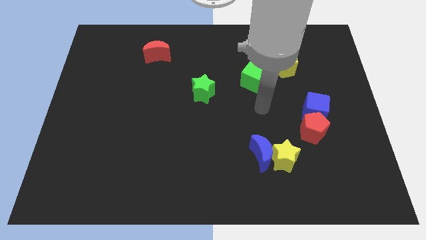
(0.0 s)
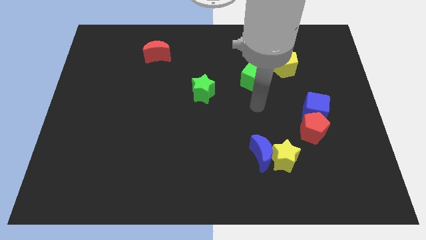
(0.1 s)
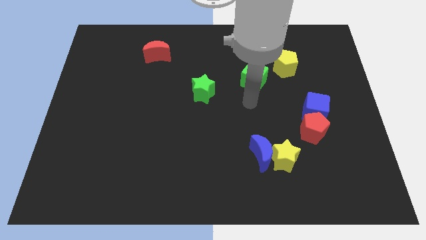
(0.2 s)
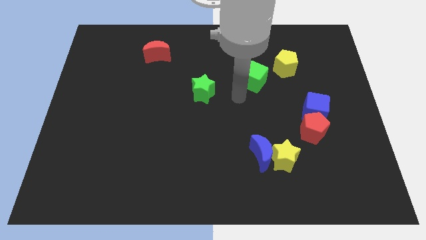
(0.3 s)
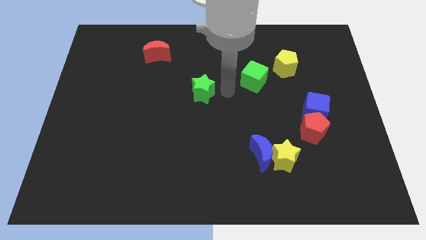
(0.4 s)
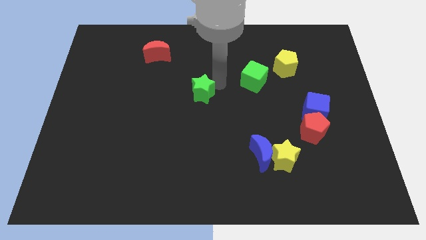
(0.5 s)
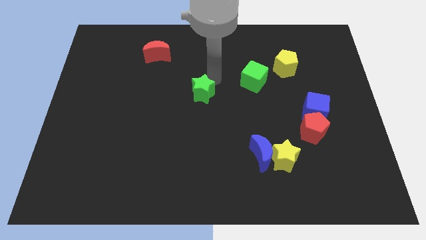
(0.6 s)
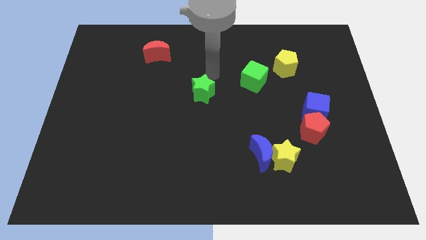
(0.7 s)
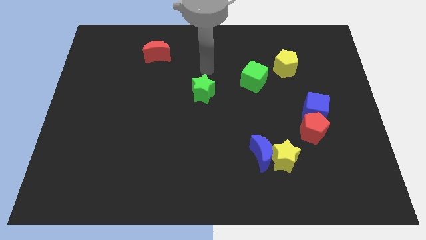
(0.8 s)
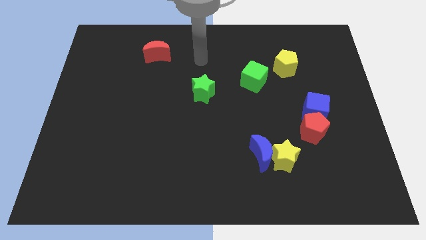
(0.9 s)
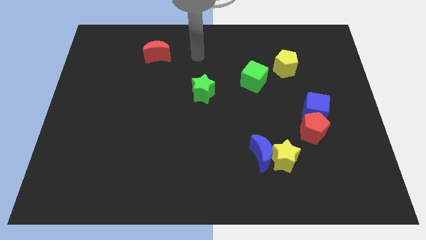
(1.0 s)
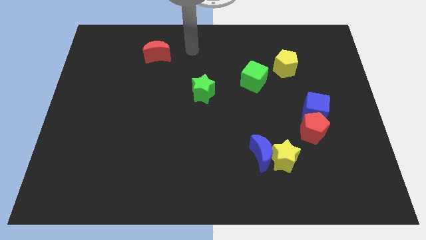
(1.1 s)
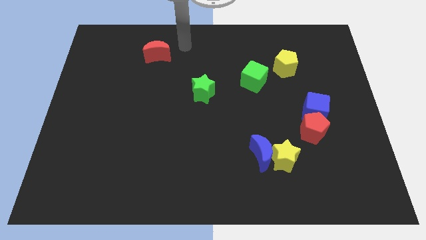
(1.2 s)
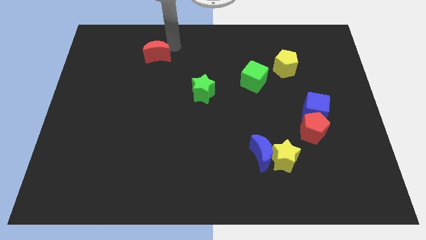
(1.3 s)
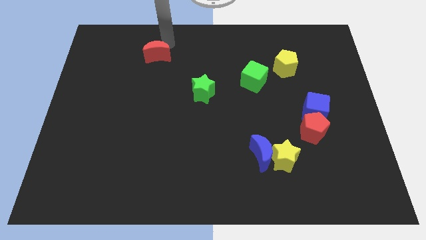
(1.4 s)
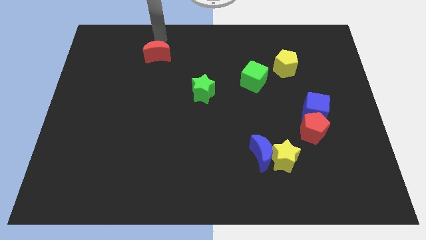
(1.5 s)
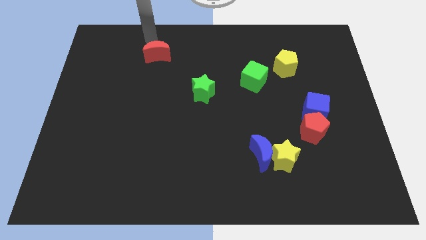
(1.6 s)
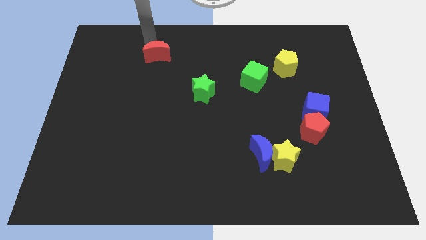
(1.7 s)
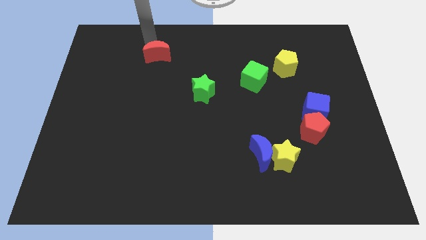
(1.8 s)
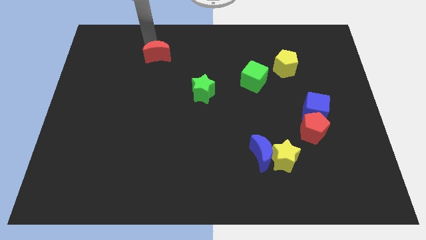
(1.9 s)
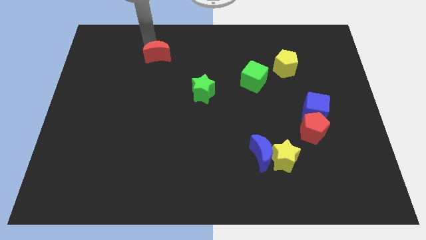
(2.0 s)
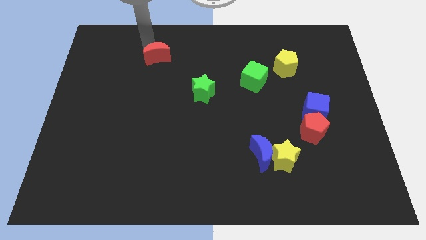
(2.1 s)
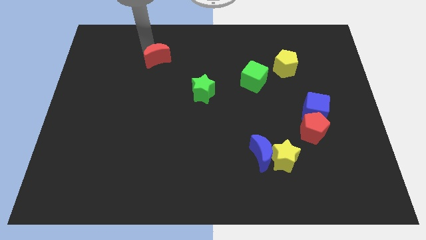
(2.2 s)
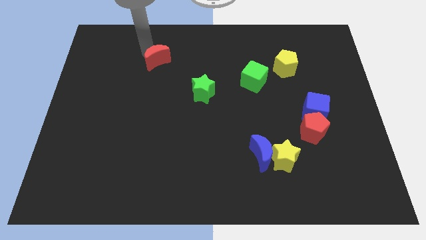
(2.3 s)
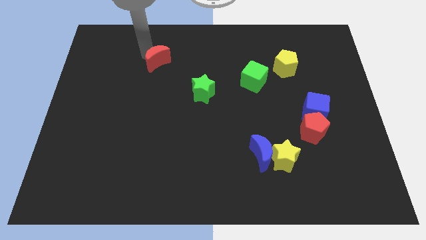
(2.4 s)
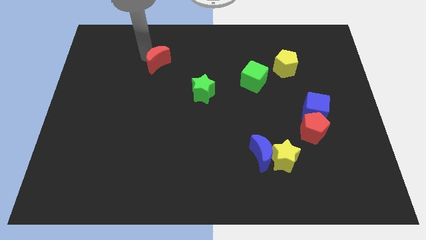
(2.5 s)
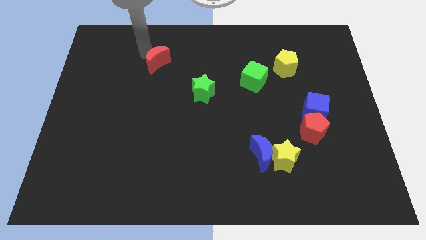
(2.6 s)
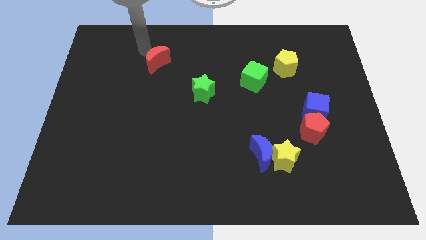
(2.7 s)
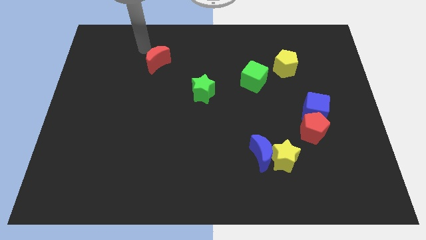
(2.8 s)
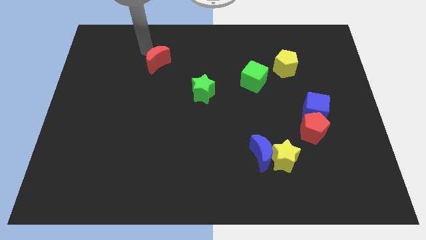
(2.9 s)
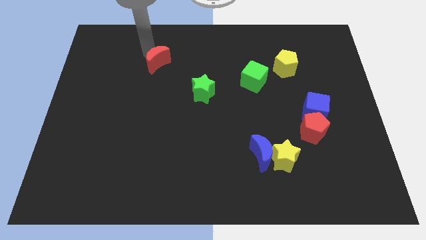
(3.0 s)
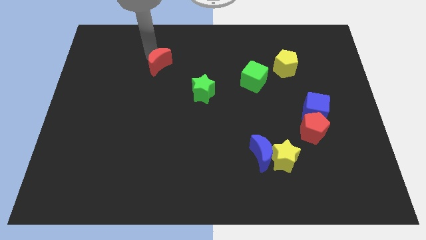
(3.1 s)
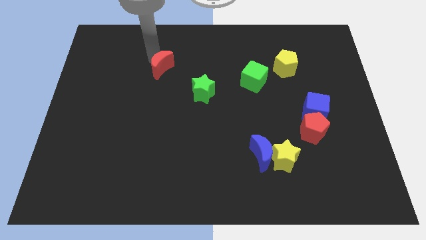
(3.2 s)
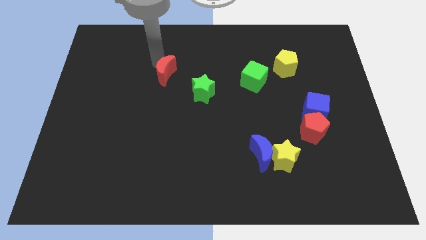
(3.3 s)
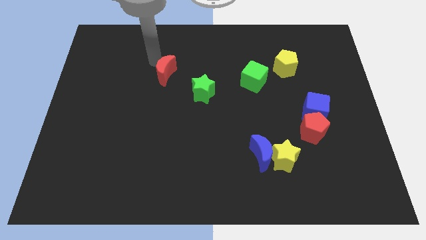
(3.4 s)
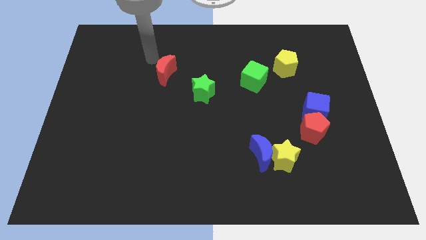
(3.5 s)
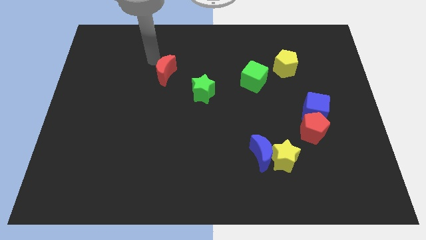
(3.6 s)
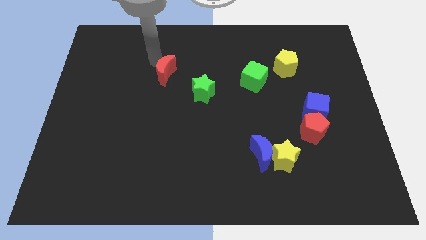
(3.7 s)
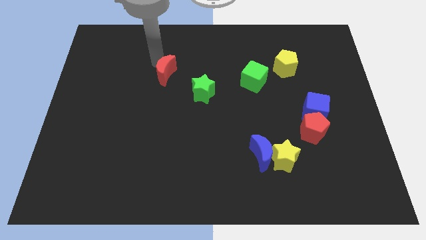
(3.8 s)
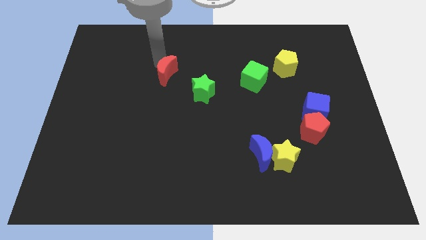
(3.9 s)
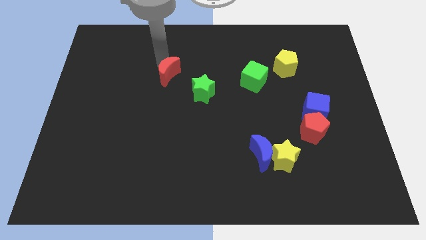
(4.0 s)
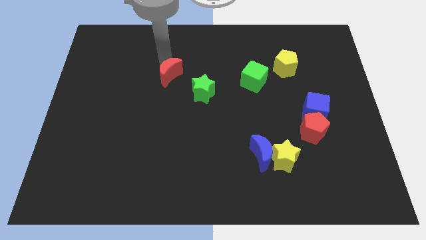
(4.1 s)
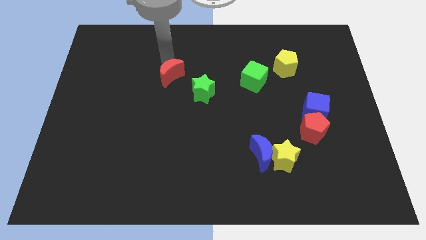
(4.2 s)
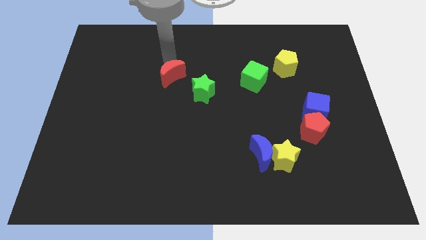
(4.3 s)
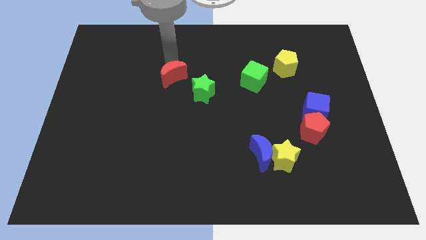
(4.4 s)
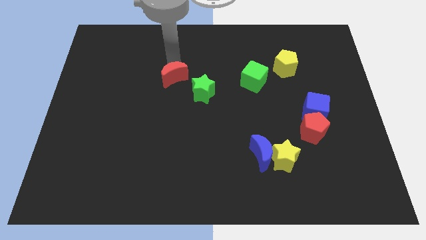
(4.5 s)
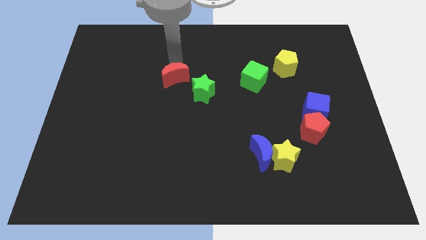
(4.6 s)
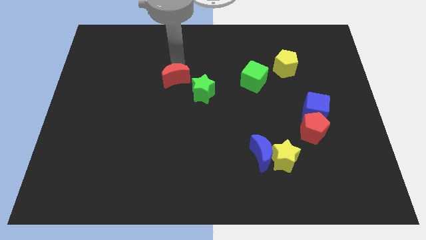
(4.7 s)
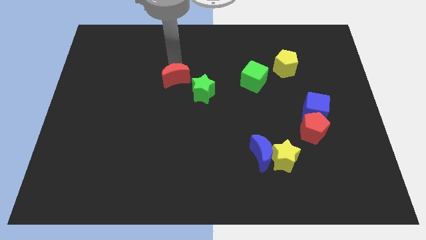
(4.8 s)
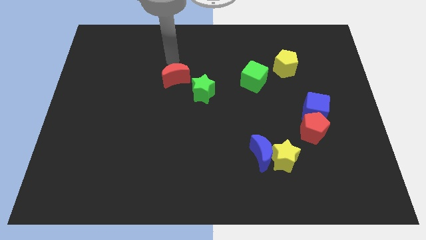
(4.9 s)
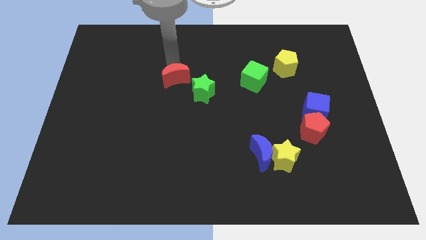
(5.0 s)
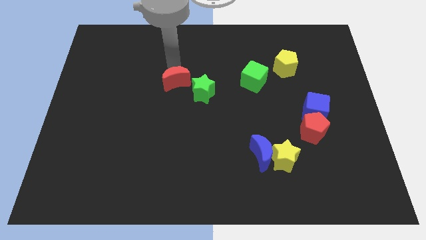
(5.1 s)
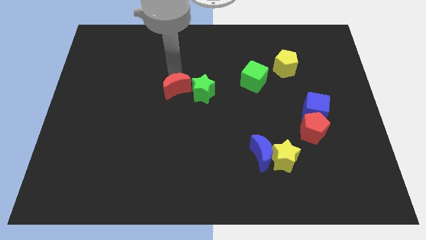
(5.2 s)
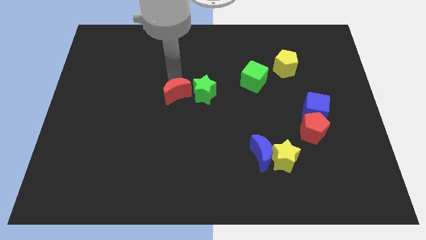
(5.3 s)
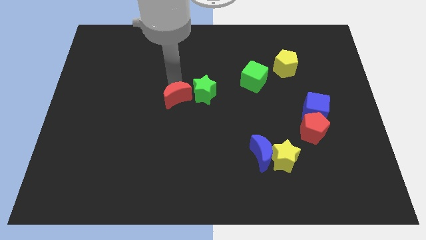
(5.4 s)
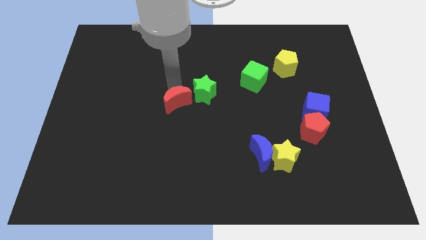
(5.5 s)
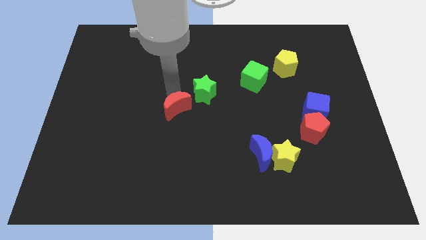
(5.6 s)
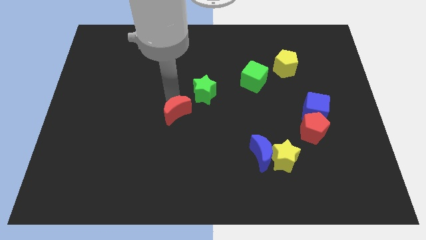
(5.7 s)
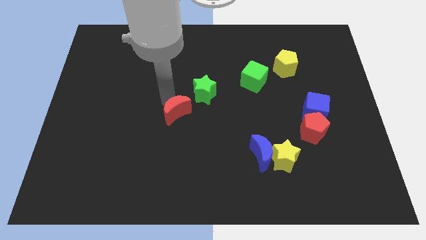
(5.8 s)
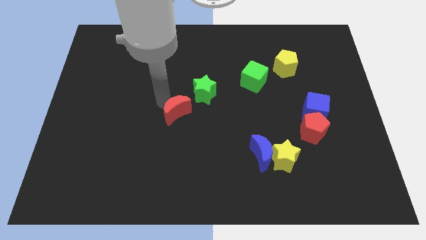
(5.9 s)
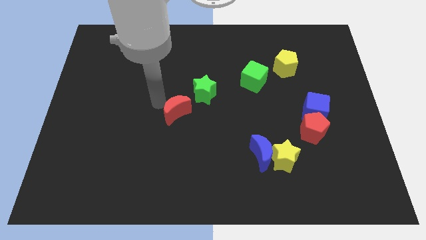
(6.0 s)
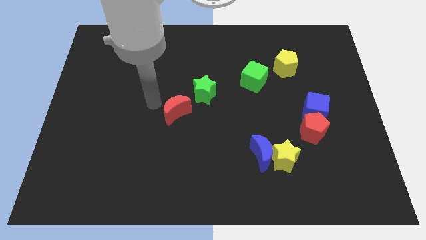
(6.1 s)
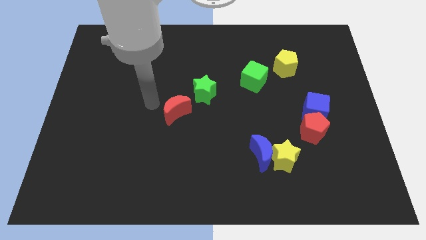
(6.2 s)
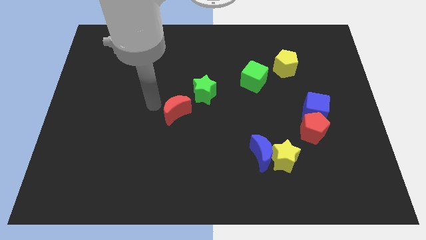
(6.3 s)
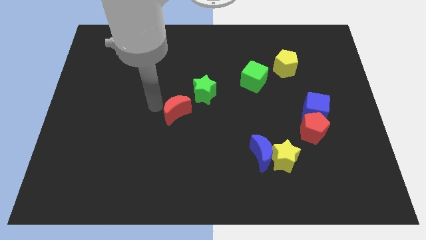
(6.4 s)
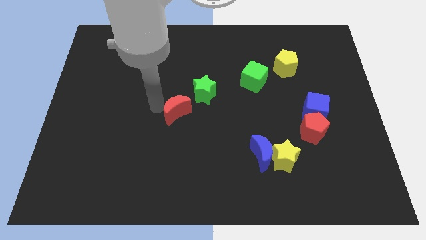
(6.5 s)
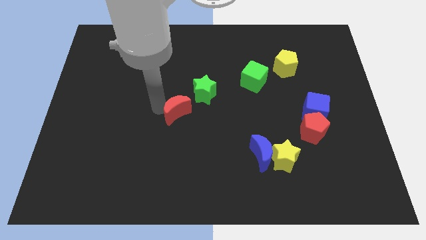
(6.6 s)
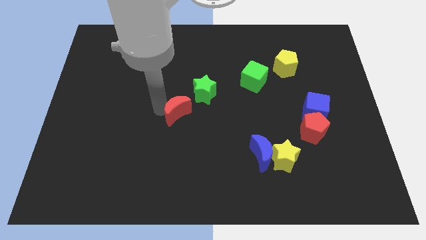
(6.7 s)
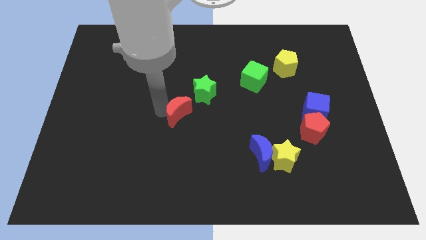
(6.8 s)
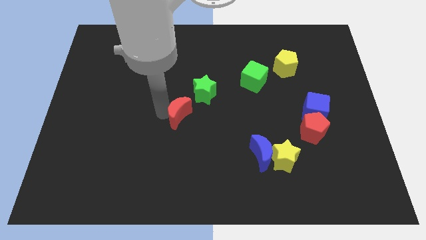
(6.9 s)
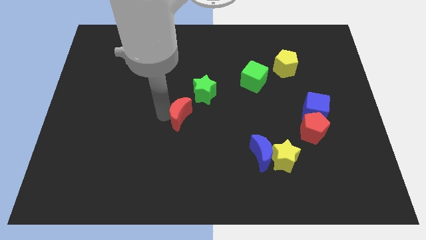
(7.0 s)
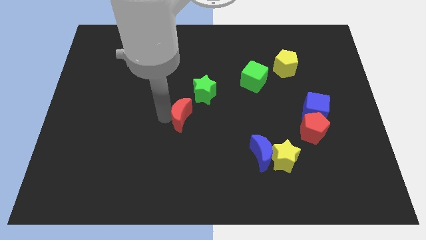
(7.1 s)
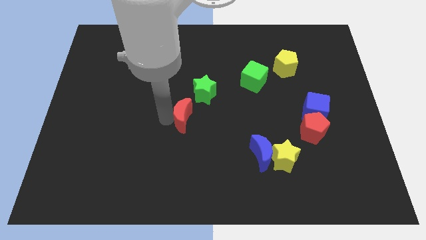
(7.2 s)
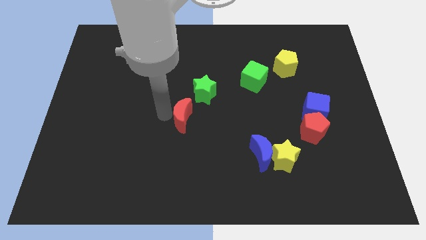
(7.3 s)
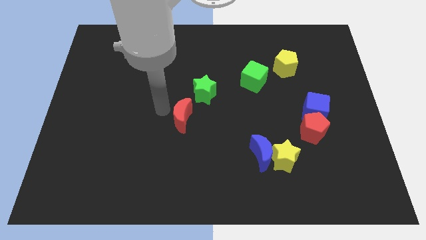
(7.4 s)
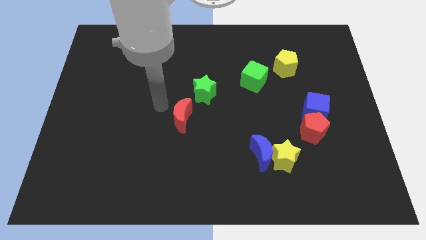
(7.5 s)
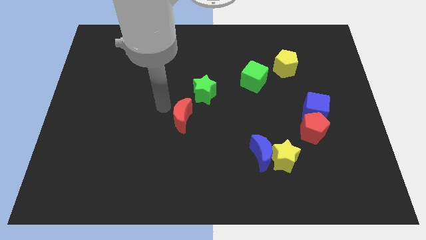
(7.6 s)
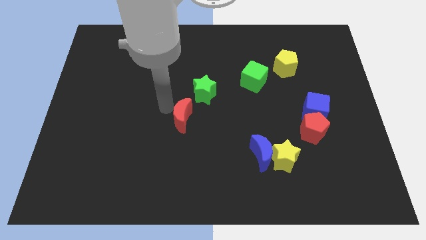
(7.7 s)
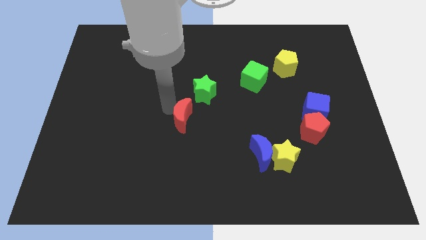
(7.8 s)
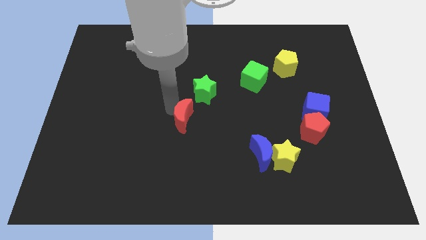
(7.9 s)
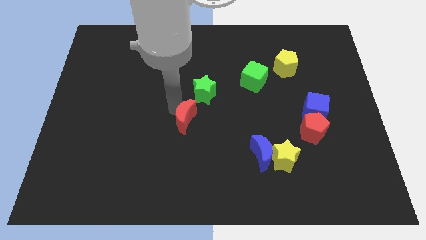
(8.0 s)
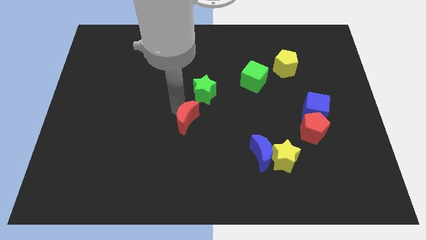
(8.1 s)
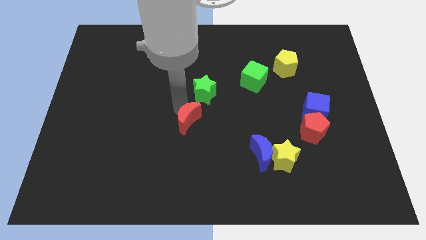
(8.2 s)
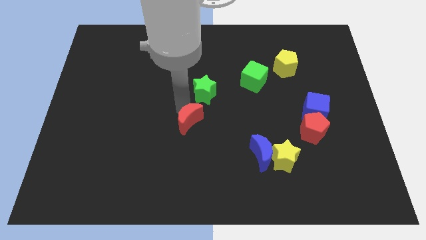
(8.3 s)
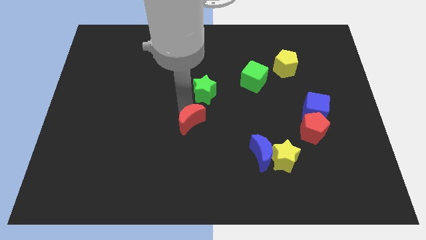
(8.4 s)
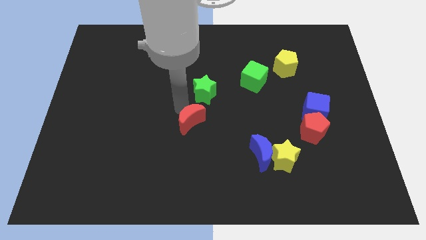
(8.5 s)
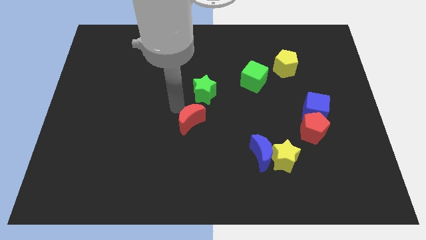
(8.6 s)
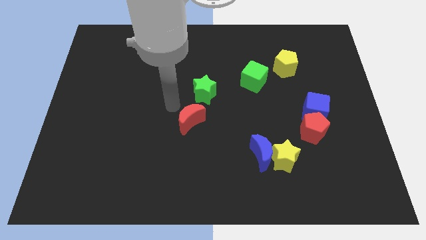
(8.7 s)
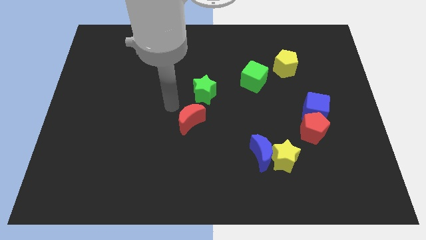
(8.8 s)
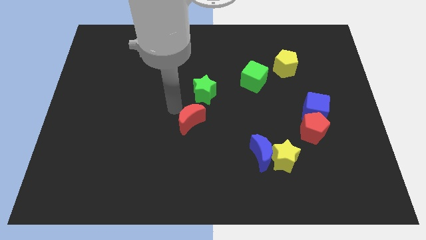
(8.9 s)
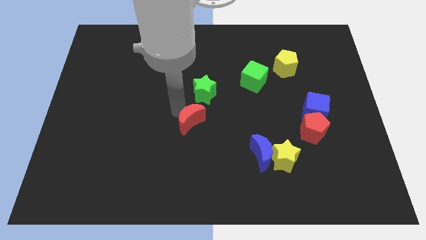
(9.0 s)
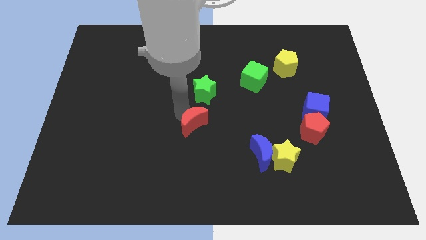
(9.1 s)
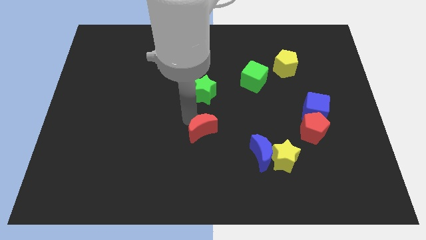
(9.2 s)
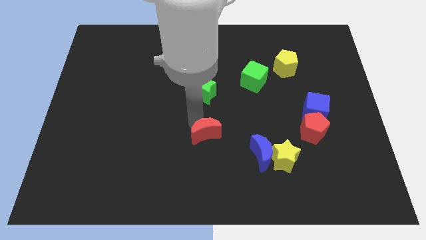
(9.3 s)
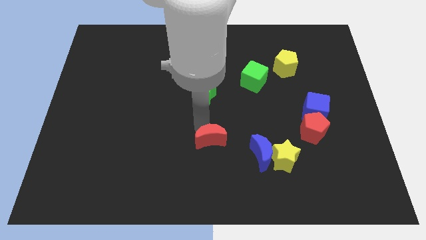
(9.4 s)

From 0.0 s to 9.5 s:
move the red moon to the left side of the blue moon
